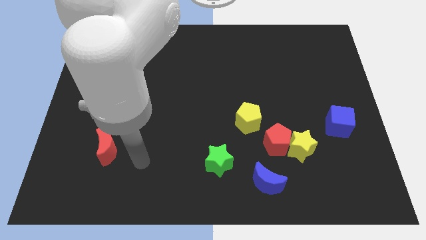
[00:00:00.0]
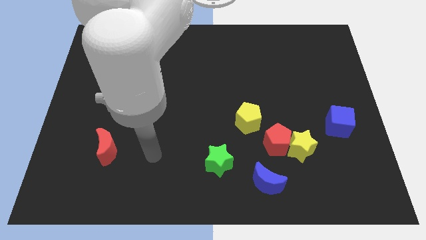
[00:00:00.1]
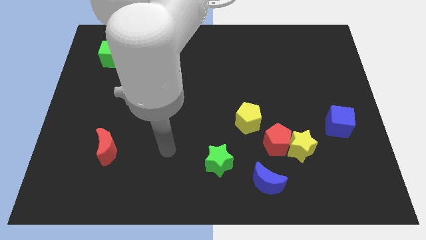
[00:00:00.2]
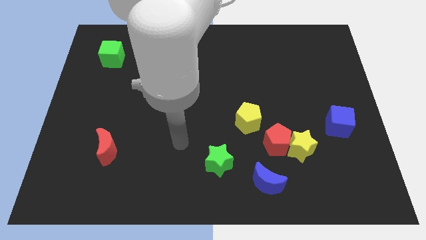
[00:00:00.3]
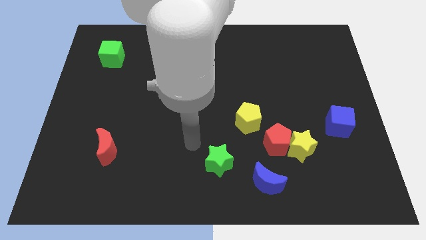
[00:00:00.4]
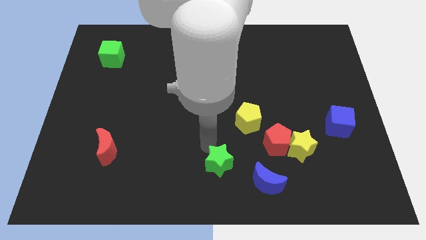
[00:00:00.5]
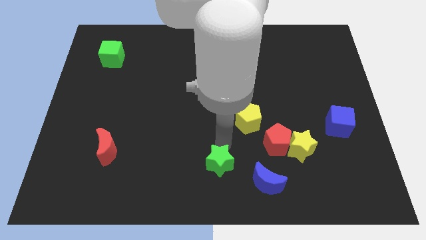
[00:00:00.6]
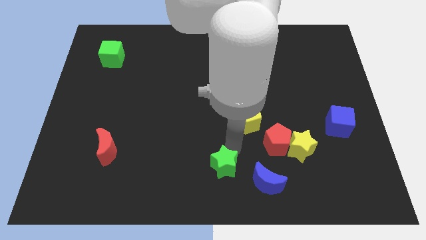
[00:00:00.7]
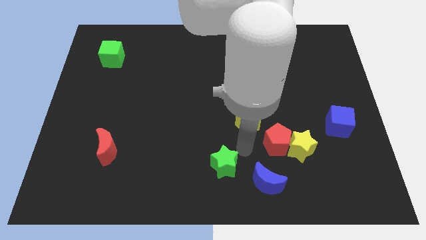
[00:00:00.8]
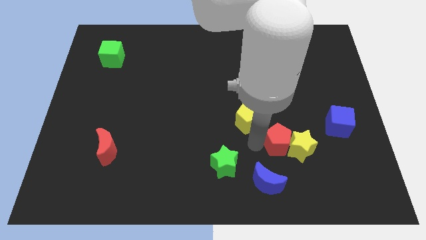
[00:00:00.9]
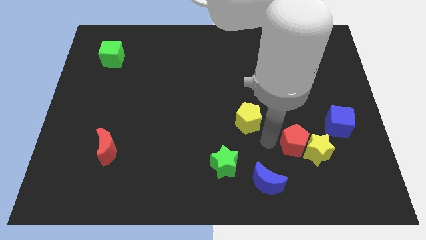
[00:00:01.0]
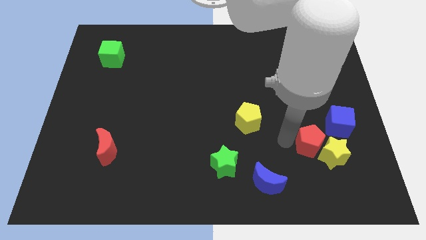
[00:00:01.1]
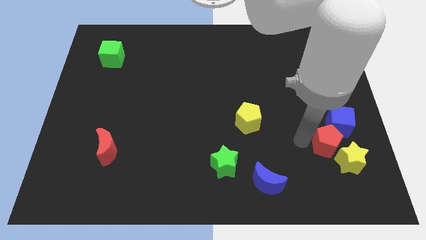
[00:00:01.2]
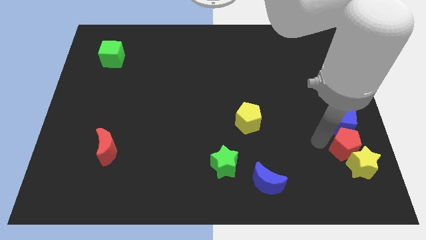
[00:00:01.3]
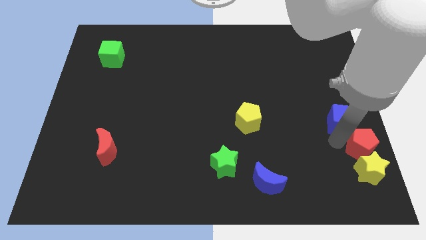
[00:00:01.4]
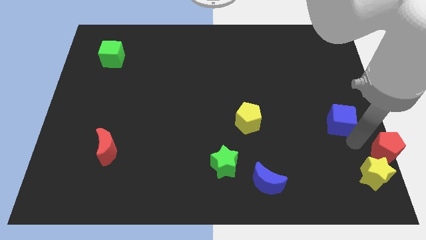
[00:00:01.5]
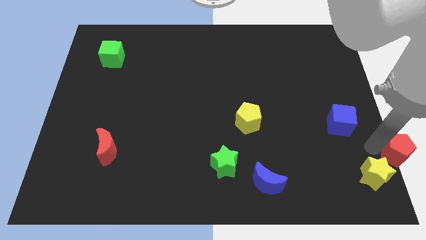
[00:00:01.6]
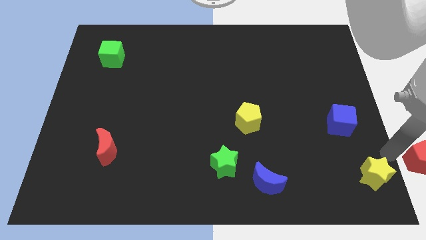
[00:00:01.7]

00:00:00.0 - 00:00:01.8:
separate the yellow star from the red pentagon

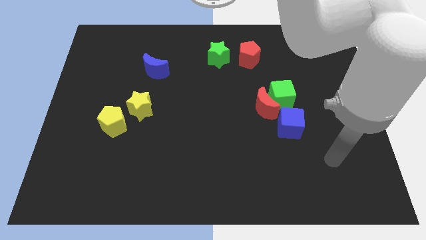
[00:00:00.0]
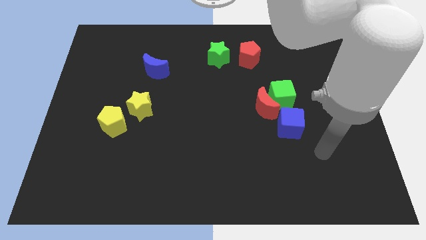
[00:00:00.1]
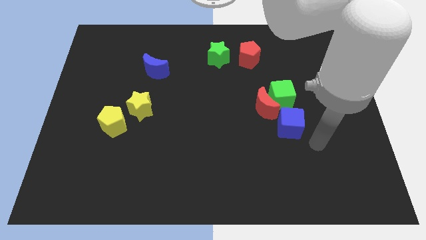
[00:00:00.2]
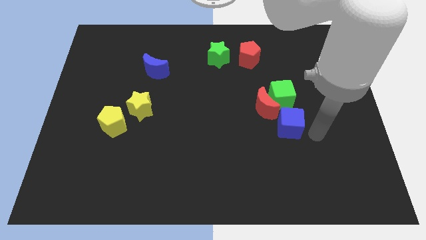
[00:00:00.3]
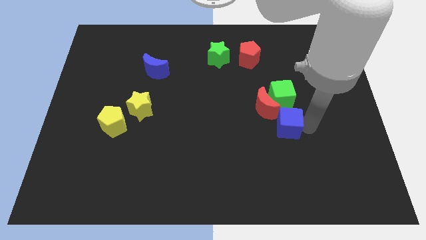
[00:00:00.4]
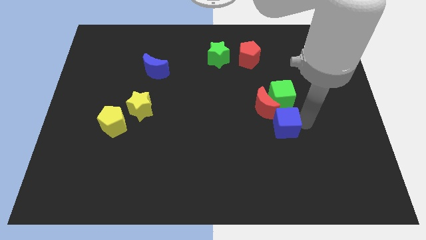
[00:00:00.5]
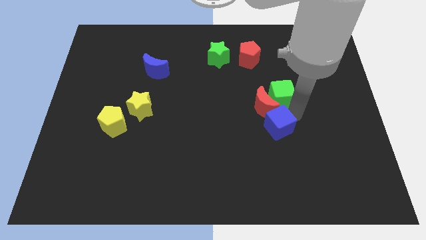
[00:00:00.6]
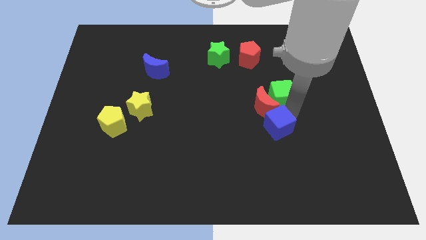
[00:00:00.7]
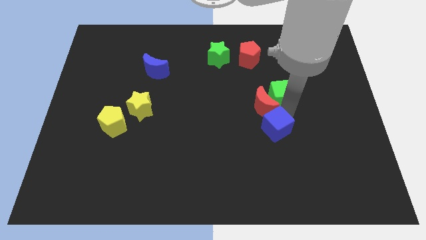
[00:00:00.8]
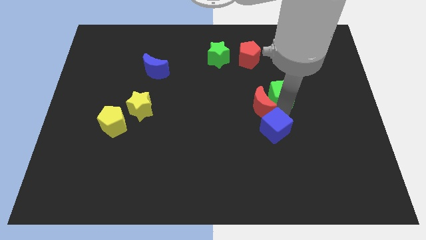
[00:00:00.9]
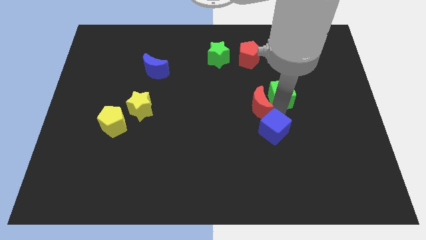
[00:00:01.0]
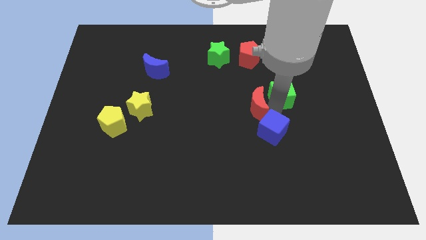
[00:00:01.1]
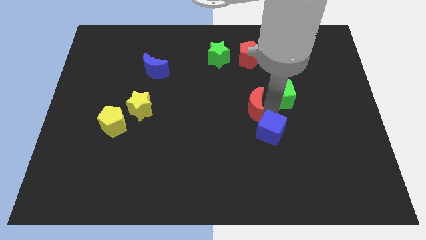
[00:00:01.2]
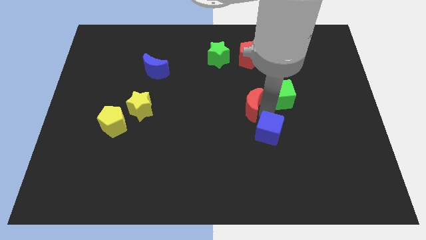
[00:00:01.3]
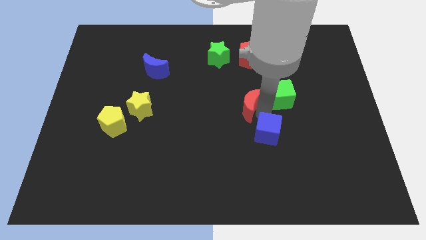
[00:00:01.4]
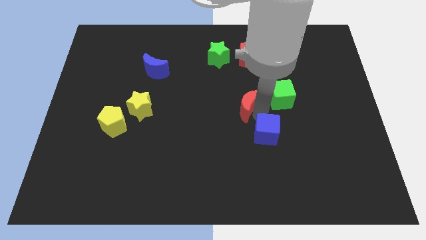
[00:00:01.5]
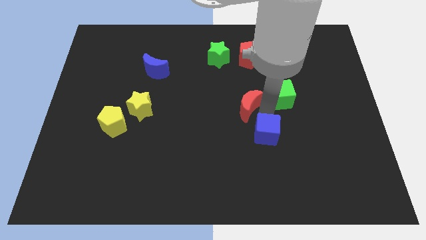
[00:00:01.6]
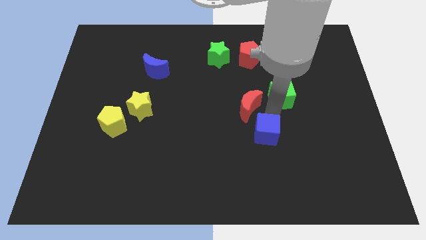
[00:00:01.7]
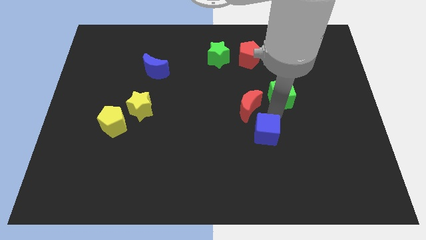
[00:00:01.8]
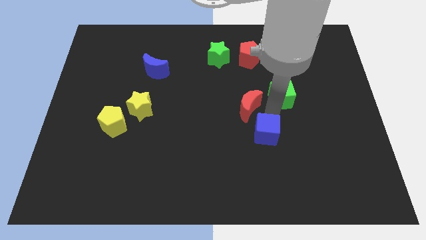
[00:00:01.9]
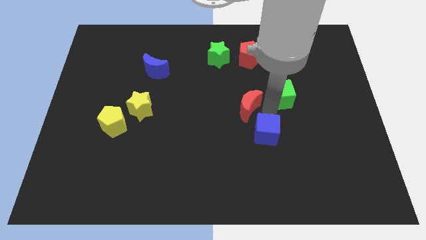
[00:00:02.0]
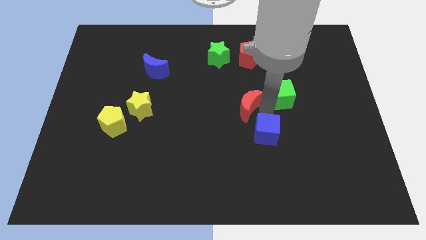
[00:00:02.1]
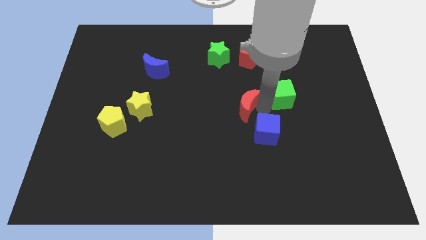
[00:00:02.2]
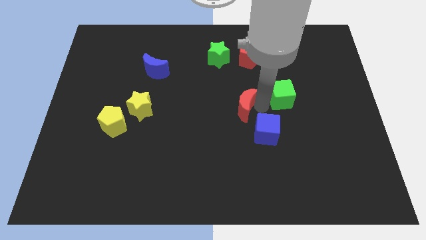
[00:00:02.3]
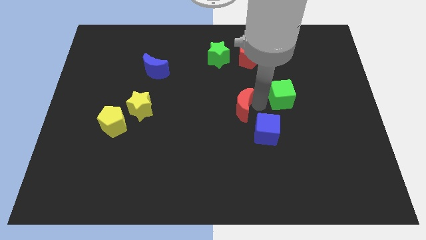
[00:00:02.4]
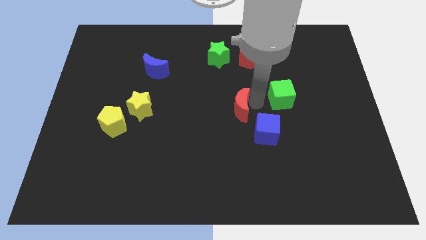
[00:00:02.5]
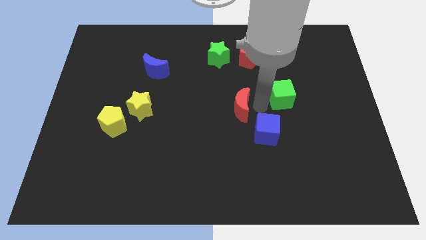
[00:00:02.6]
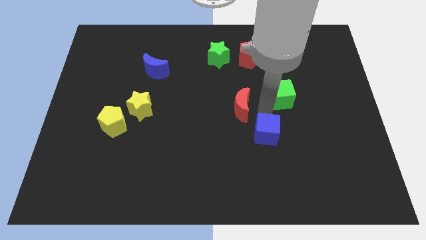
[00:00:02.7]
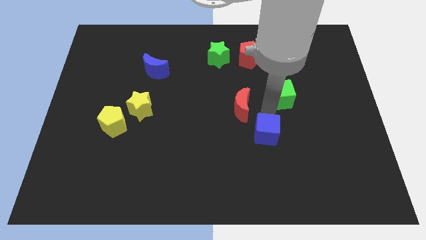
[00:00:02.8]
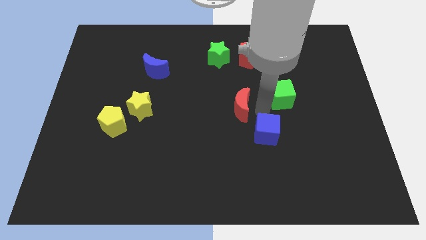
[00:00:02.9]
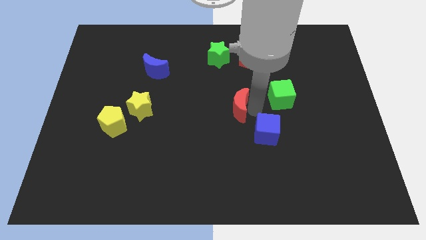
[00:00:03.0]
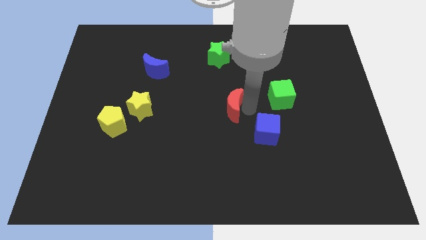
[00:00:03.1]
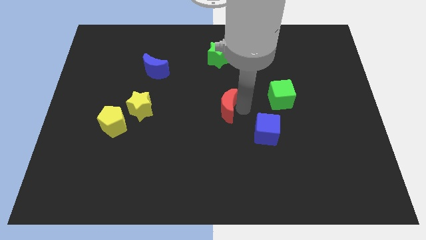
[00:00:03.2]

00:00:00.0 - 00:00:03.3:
pull the red moon apart from the green cube and blue cube

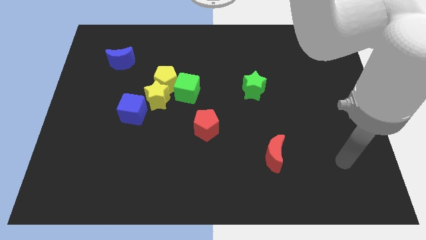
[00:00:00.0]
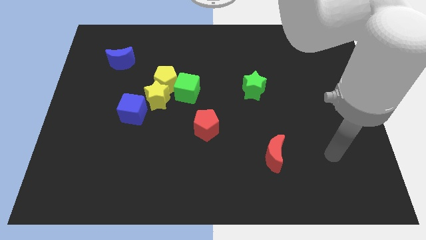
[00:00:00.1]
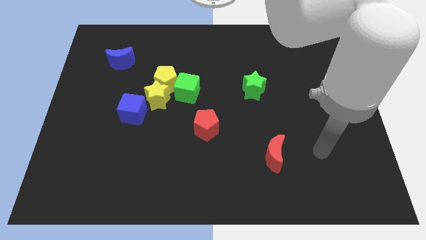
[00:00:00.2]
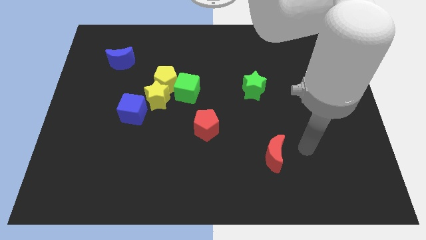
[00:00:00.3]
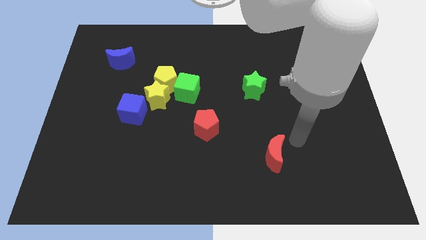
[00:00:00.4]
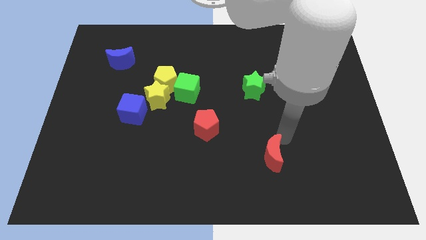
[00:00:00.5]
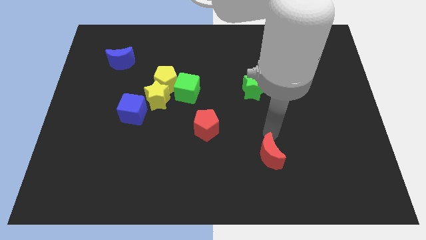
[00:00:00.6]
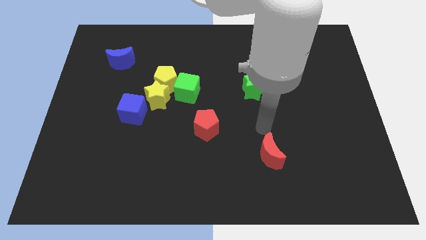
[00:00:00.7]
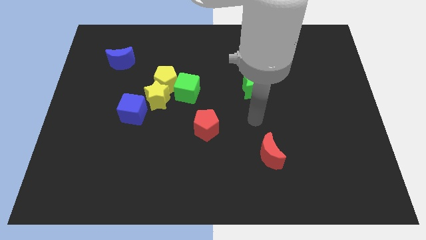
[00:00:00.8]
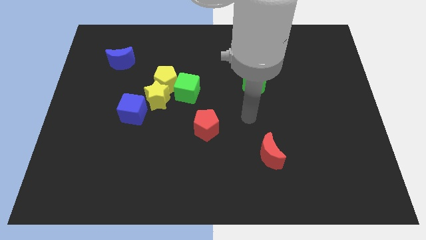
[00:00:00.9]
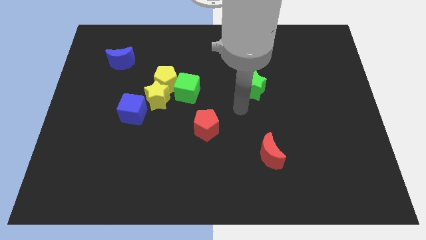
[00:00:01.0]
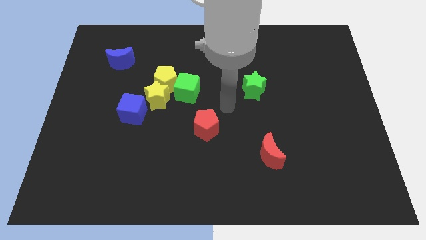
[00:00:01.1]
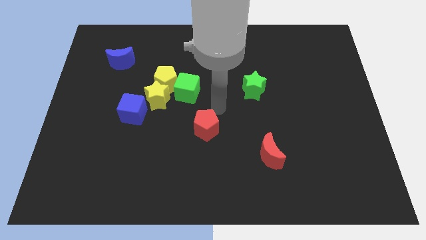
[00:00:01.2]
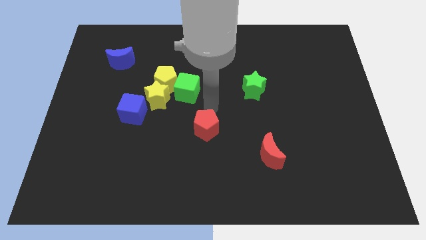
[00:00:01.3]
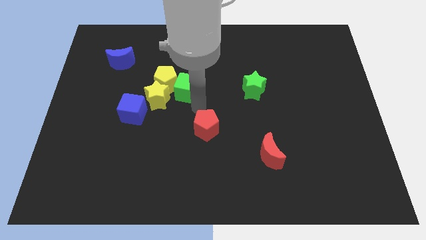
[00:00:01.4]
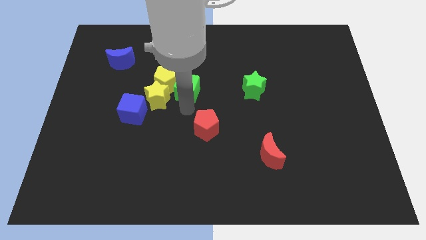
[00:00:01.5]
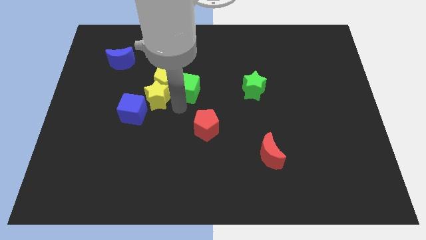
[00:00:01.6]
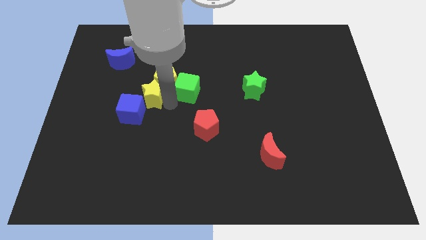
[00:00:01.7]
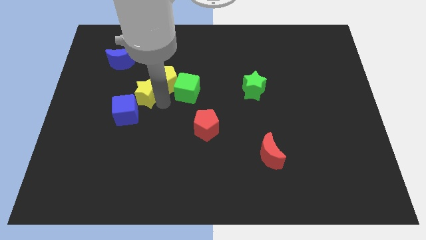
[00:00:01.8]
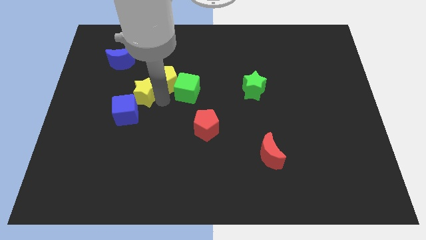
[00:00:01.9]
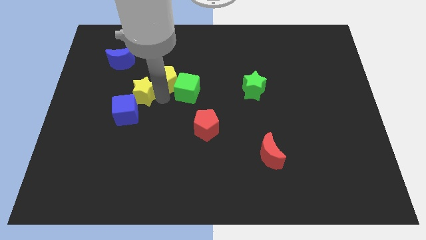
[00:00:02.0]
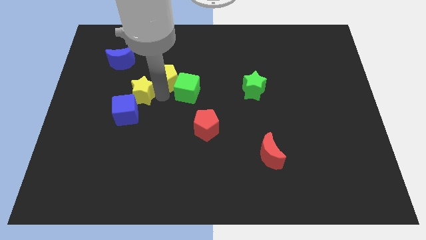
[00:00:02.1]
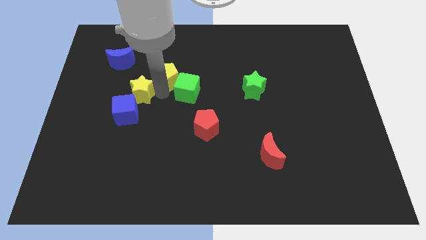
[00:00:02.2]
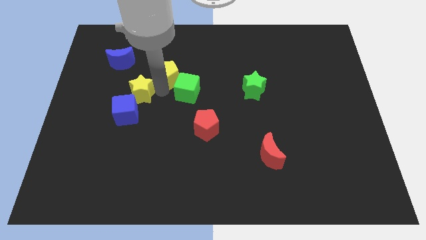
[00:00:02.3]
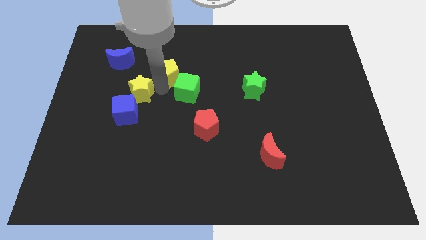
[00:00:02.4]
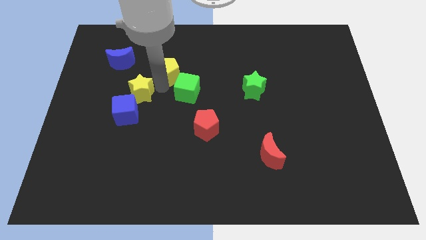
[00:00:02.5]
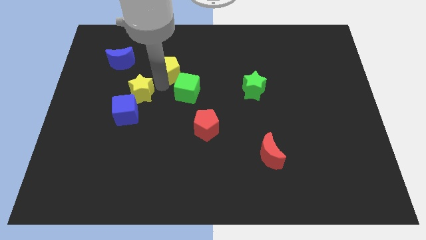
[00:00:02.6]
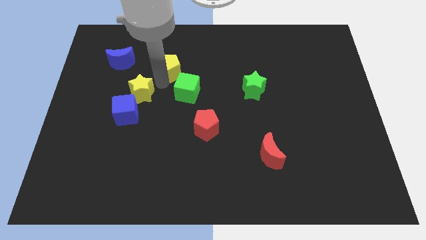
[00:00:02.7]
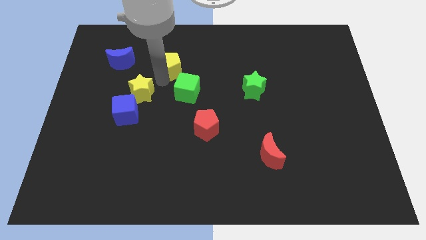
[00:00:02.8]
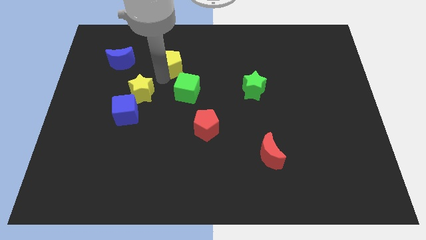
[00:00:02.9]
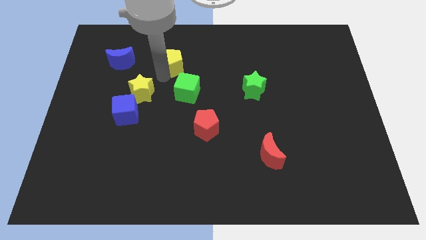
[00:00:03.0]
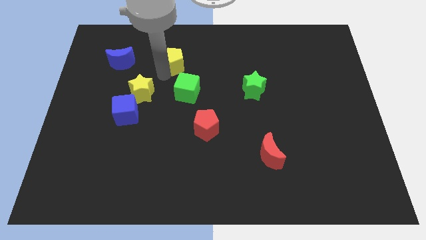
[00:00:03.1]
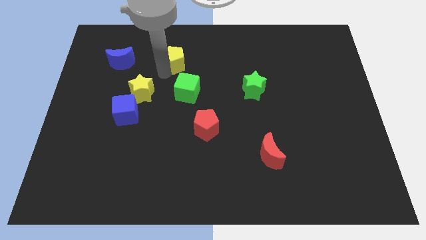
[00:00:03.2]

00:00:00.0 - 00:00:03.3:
move the yellow pentagon away from the yellow star and green cube

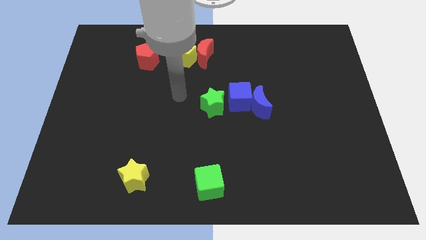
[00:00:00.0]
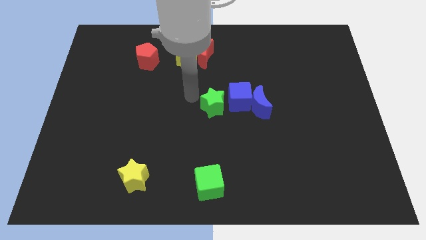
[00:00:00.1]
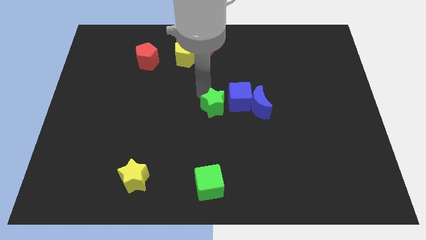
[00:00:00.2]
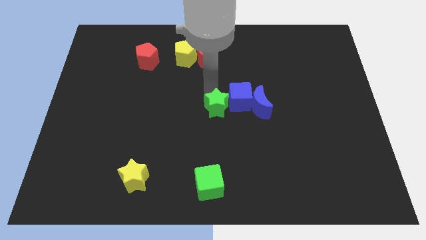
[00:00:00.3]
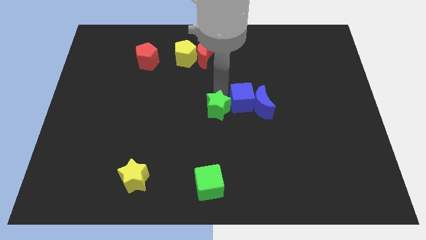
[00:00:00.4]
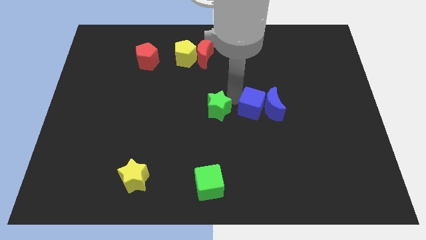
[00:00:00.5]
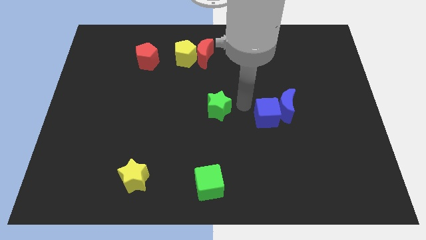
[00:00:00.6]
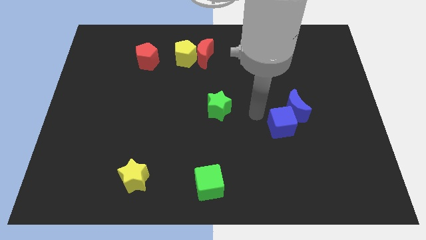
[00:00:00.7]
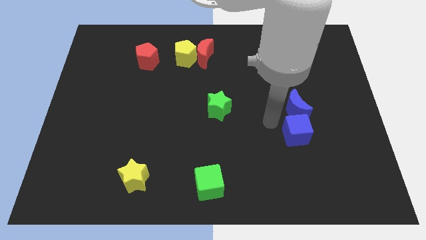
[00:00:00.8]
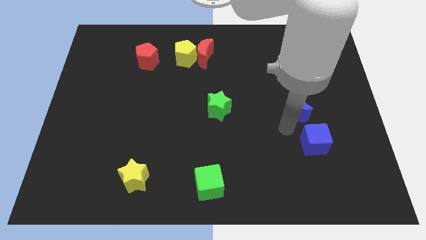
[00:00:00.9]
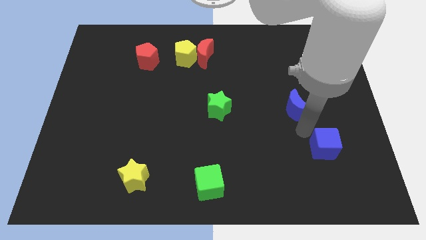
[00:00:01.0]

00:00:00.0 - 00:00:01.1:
pull the blue moon apart from the blue cube
